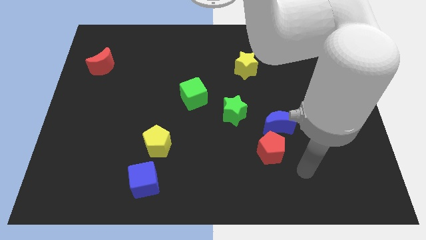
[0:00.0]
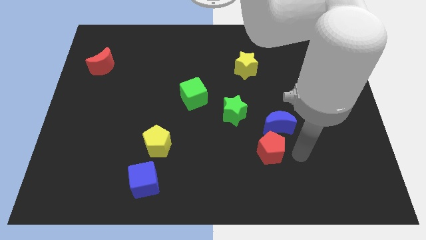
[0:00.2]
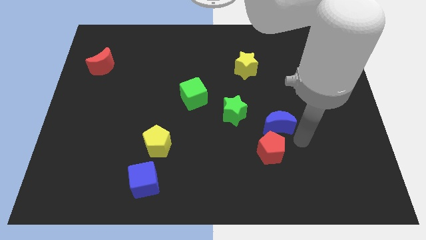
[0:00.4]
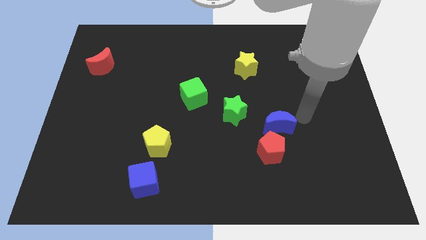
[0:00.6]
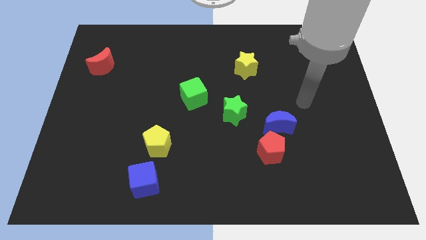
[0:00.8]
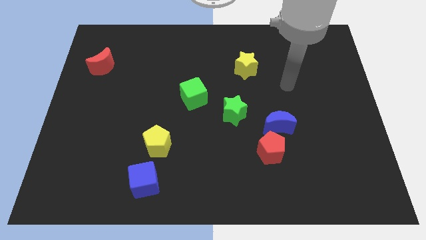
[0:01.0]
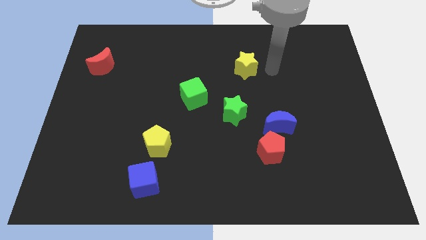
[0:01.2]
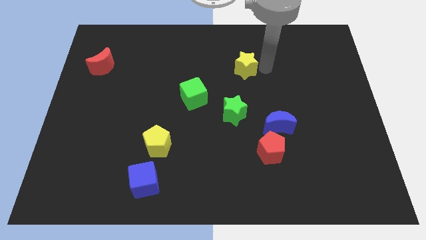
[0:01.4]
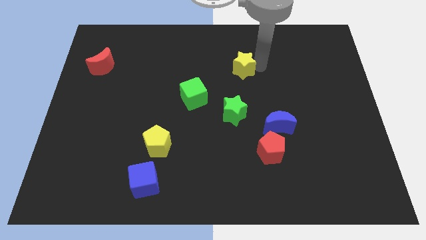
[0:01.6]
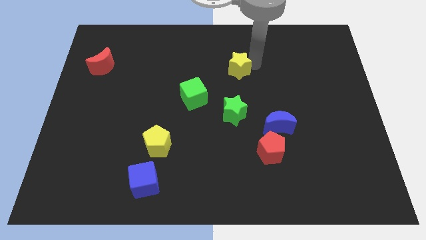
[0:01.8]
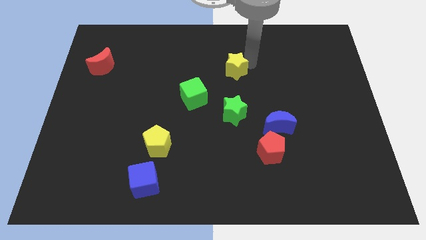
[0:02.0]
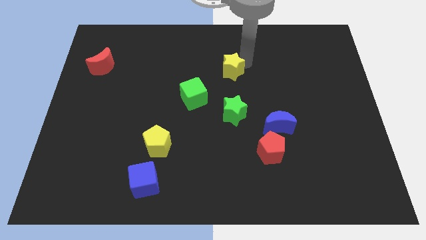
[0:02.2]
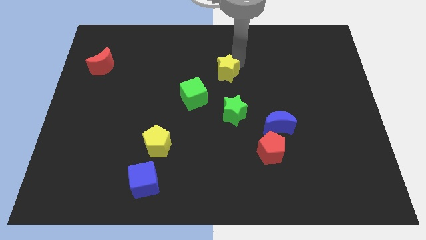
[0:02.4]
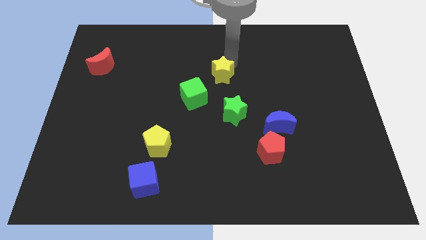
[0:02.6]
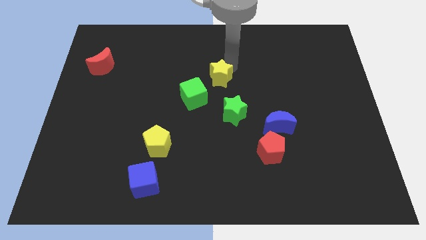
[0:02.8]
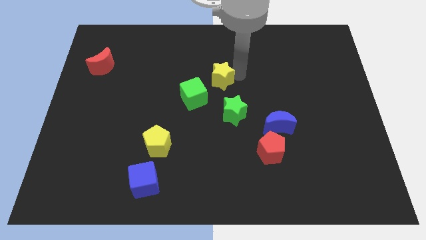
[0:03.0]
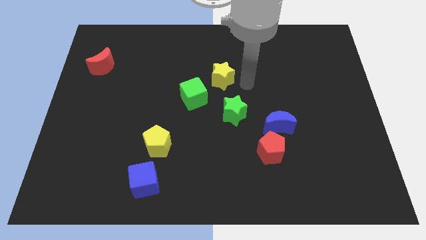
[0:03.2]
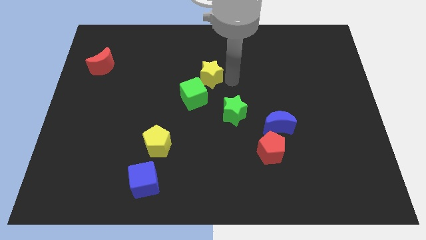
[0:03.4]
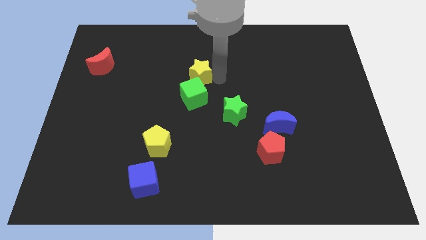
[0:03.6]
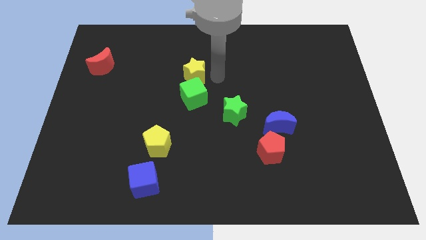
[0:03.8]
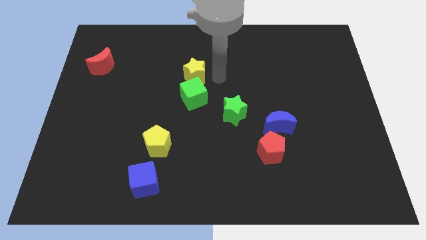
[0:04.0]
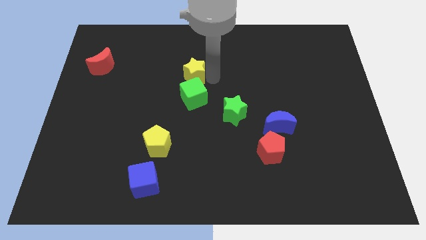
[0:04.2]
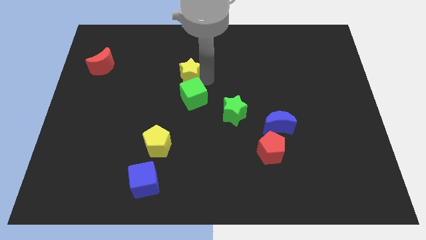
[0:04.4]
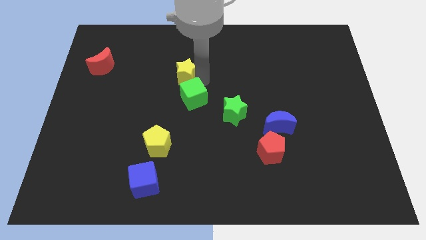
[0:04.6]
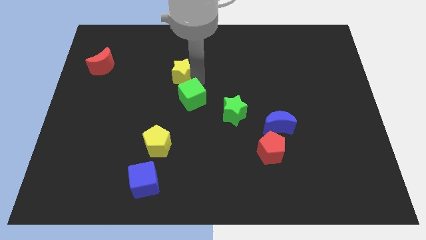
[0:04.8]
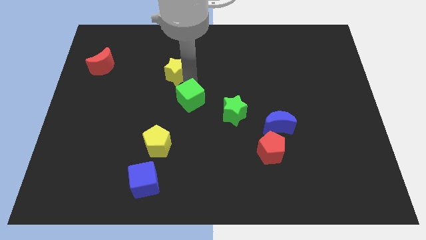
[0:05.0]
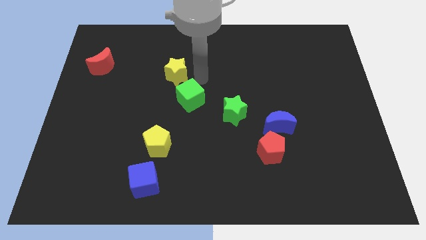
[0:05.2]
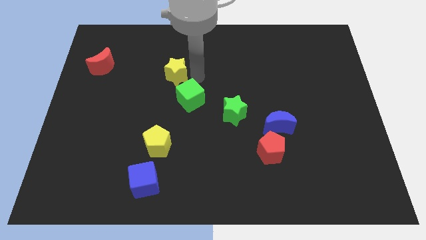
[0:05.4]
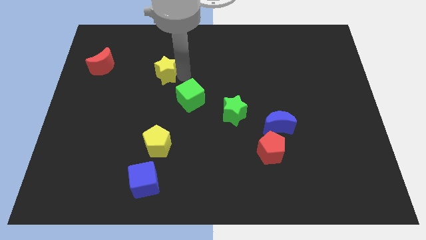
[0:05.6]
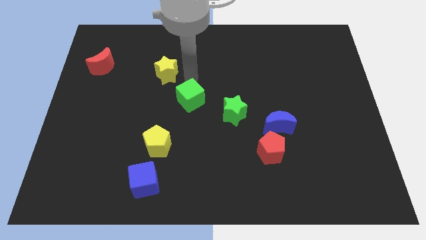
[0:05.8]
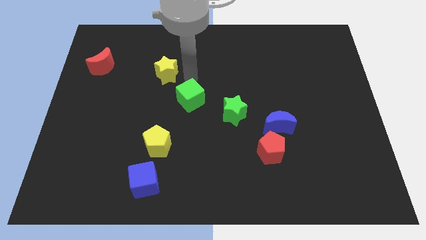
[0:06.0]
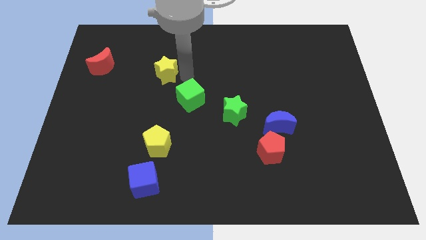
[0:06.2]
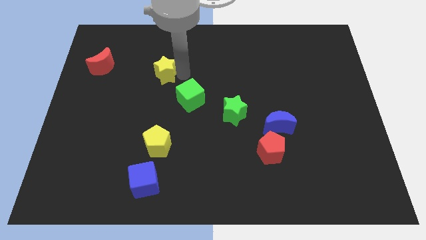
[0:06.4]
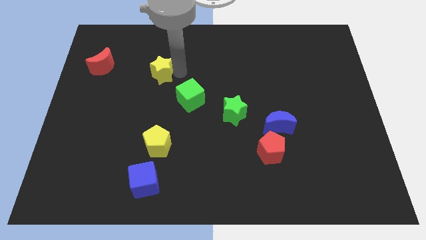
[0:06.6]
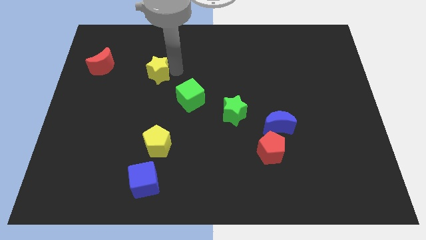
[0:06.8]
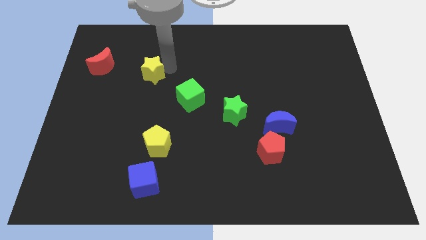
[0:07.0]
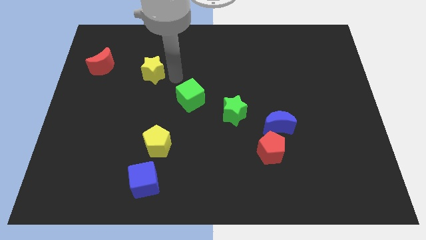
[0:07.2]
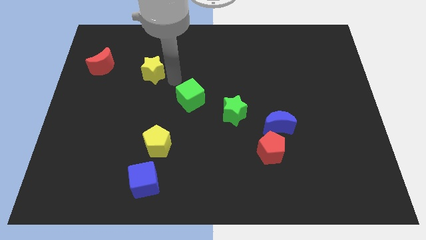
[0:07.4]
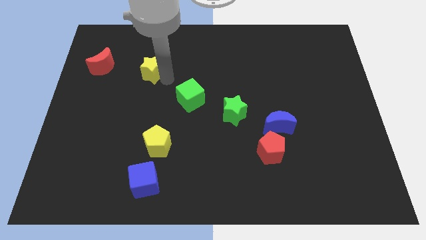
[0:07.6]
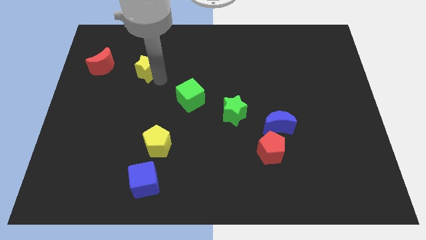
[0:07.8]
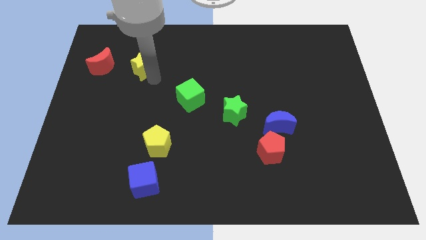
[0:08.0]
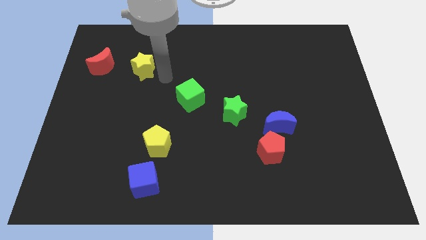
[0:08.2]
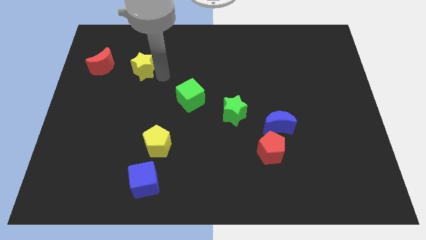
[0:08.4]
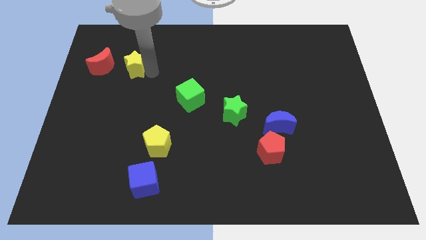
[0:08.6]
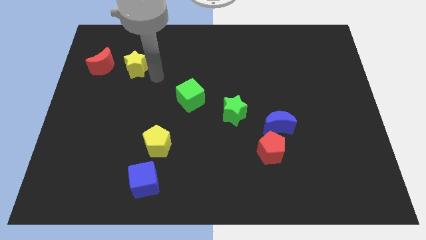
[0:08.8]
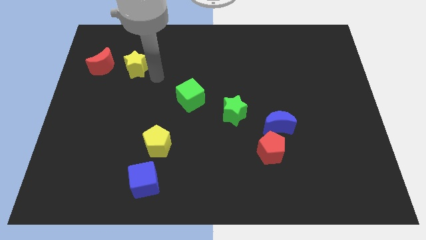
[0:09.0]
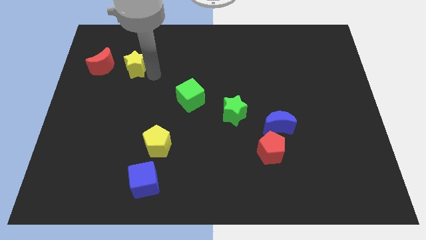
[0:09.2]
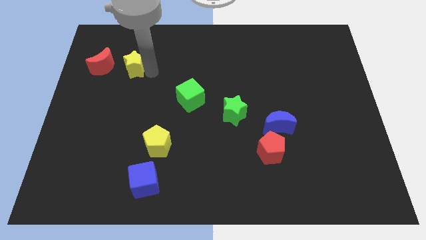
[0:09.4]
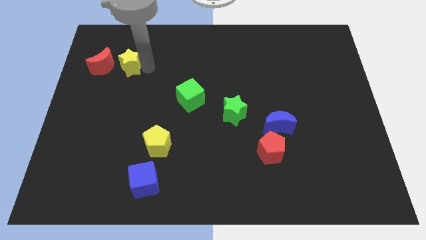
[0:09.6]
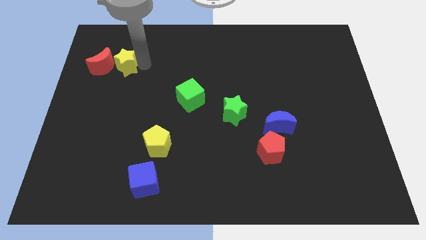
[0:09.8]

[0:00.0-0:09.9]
slide the yellow star next to the red moon

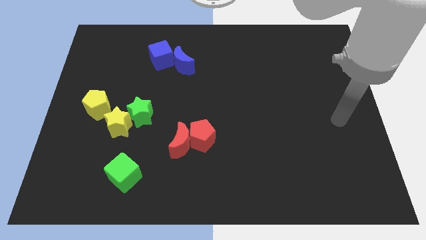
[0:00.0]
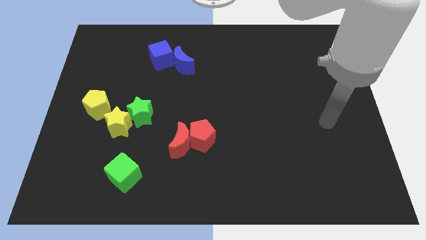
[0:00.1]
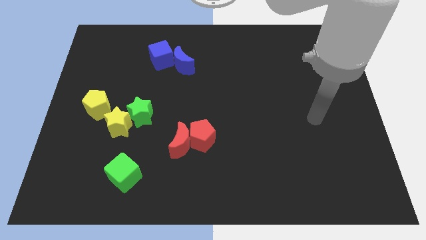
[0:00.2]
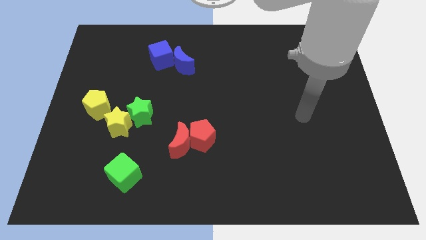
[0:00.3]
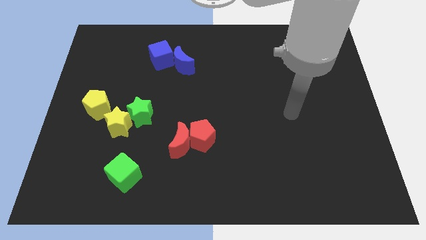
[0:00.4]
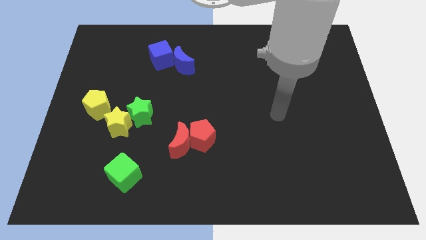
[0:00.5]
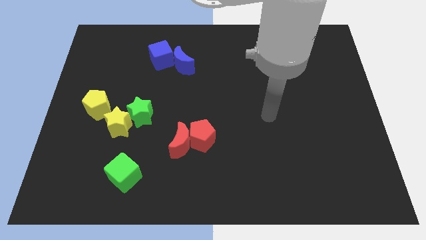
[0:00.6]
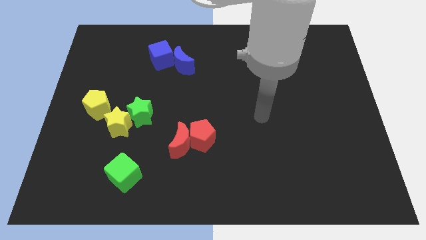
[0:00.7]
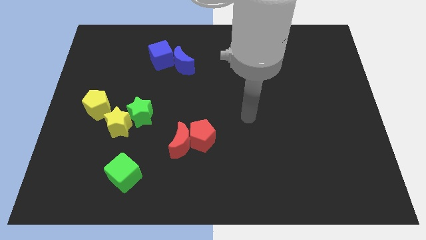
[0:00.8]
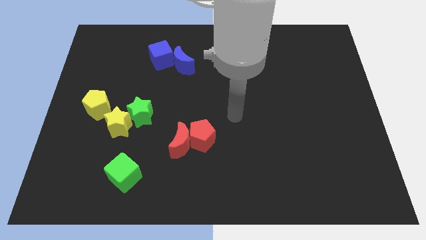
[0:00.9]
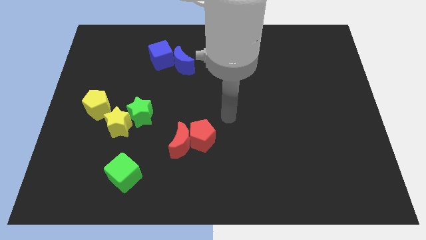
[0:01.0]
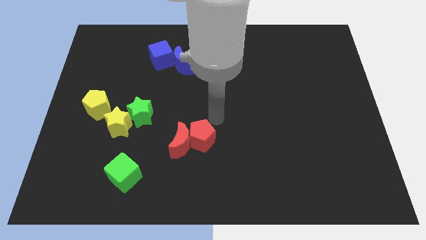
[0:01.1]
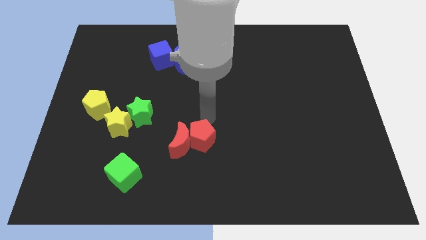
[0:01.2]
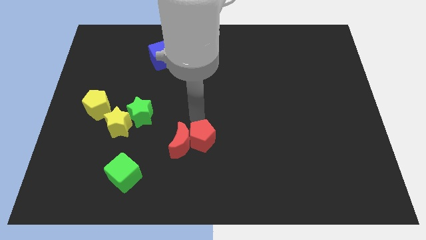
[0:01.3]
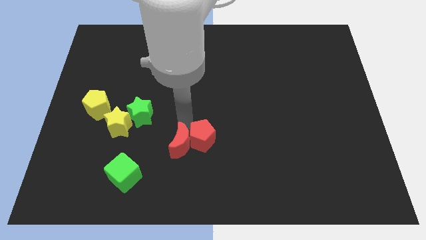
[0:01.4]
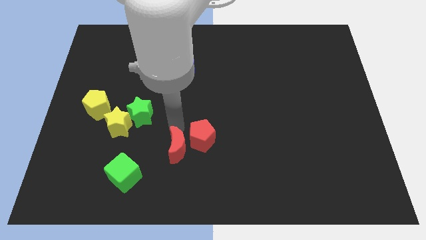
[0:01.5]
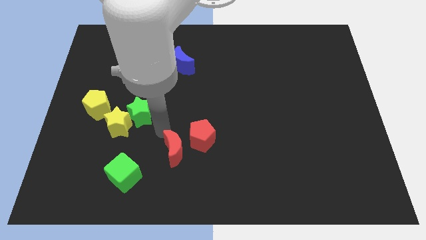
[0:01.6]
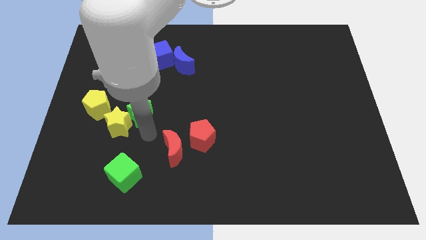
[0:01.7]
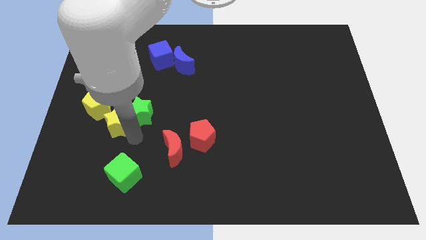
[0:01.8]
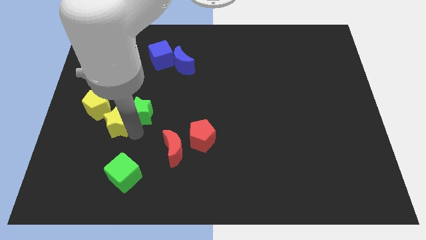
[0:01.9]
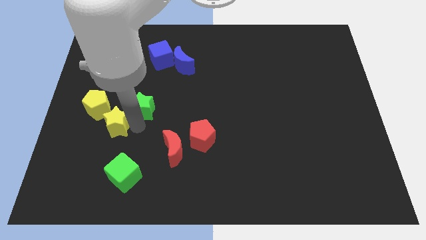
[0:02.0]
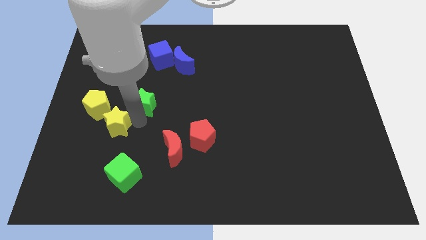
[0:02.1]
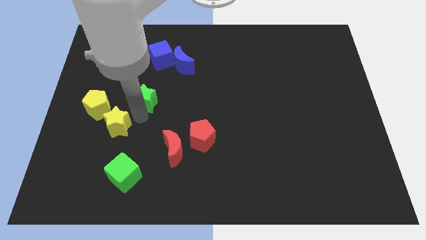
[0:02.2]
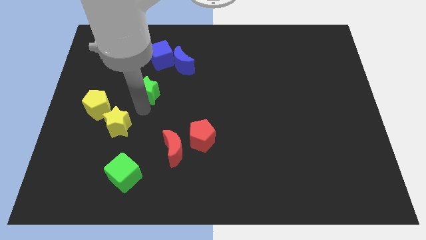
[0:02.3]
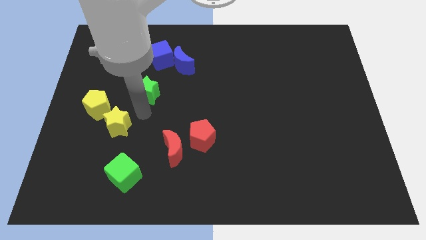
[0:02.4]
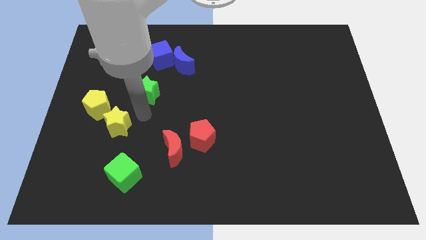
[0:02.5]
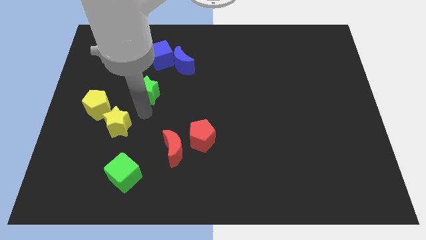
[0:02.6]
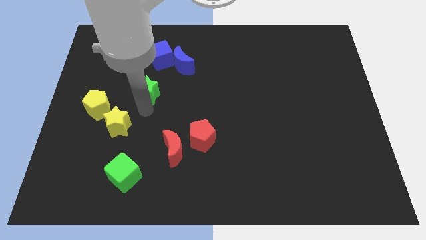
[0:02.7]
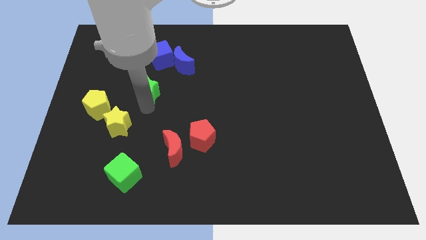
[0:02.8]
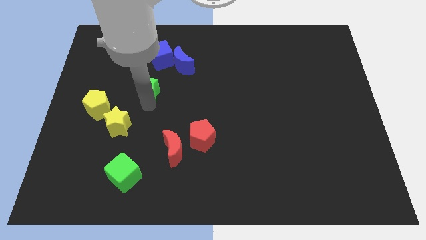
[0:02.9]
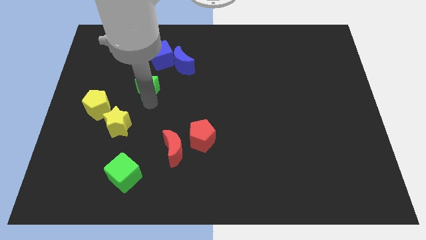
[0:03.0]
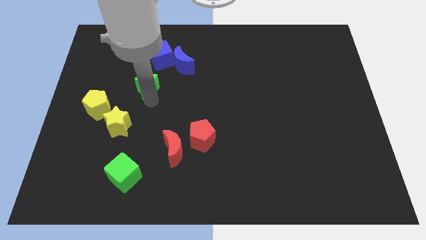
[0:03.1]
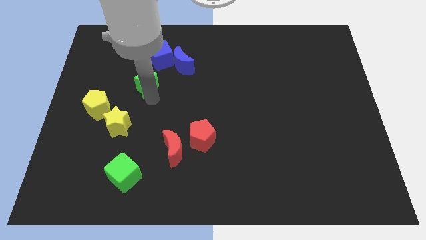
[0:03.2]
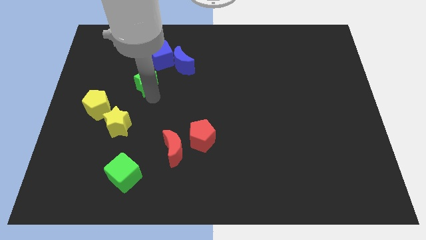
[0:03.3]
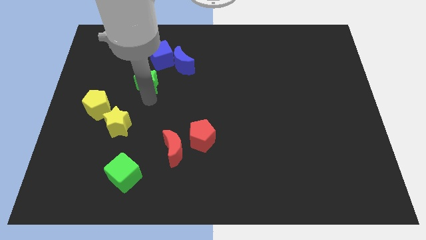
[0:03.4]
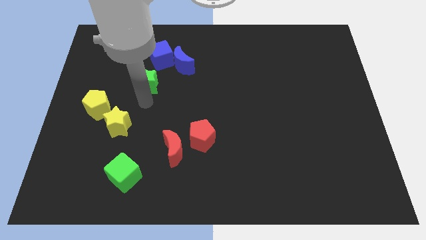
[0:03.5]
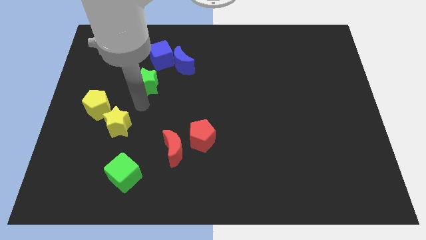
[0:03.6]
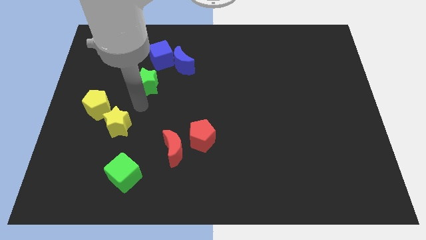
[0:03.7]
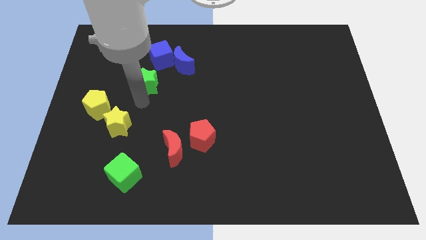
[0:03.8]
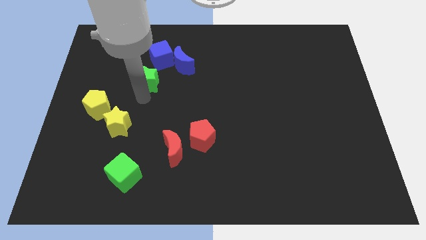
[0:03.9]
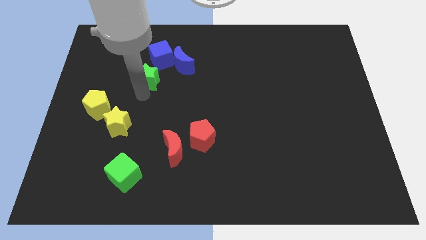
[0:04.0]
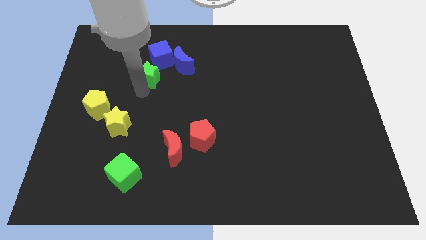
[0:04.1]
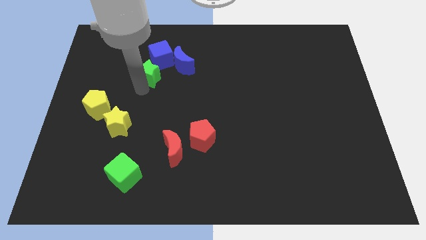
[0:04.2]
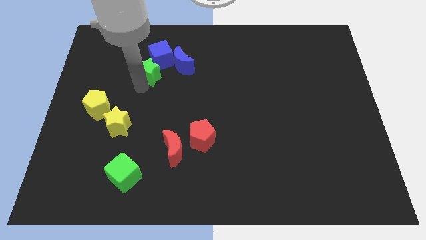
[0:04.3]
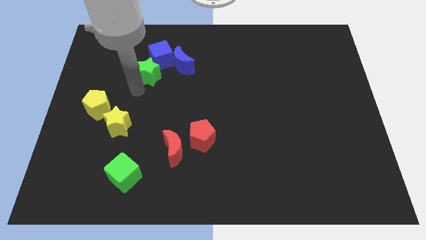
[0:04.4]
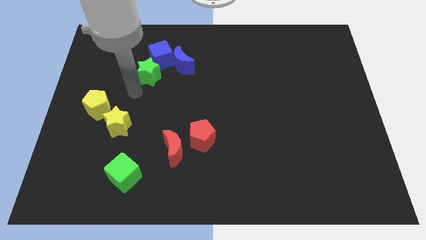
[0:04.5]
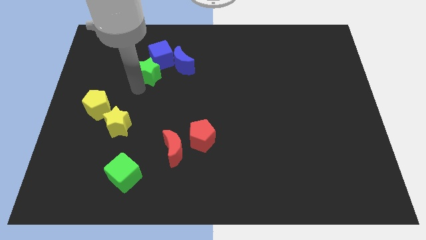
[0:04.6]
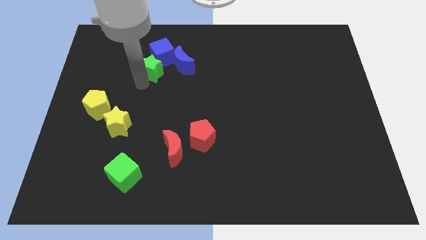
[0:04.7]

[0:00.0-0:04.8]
slide the green star close to the blue cube
